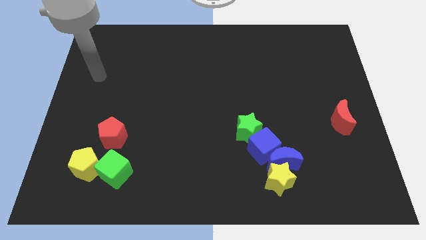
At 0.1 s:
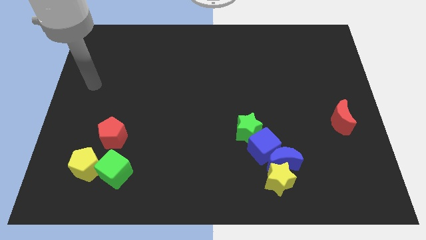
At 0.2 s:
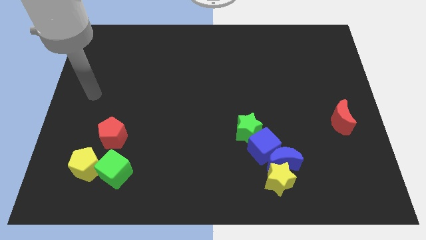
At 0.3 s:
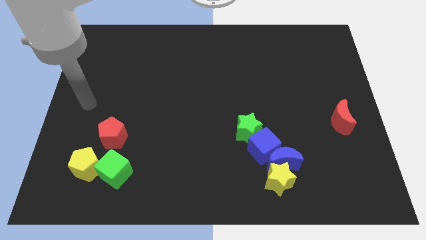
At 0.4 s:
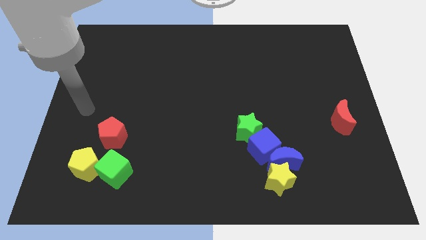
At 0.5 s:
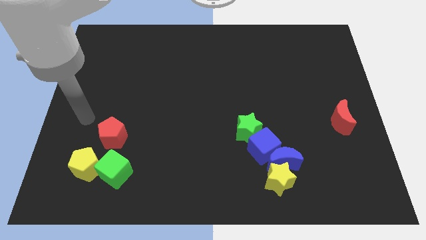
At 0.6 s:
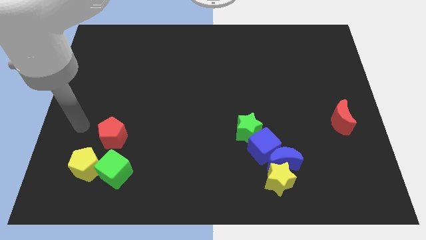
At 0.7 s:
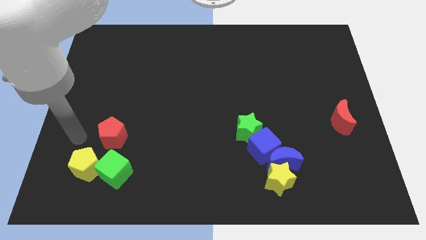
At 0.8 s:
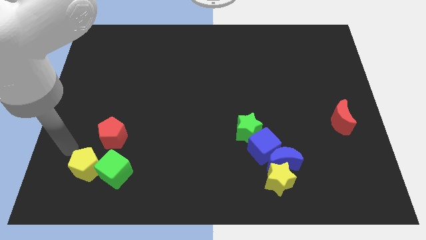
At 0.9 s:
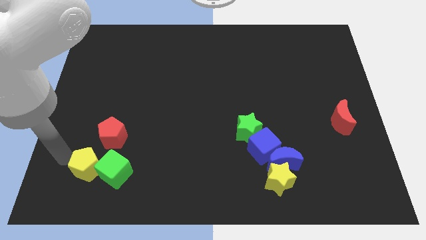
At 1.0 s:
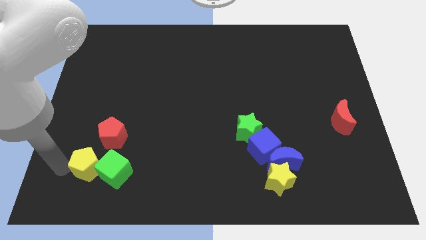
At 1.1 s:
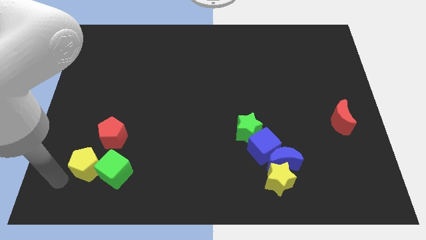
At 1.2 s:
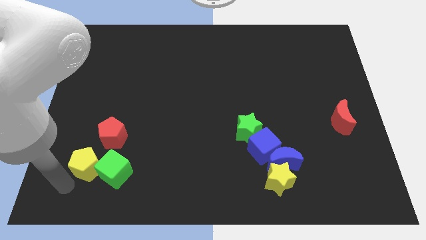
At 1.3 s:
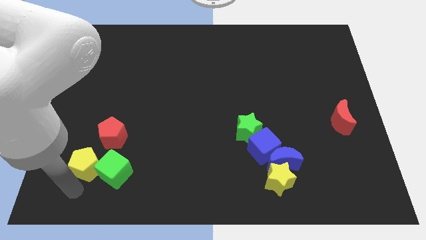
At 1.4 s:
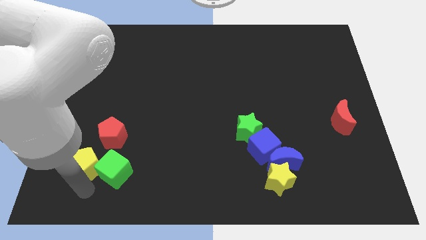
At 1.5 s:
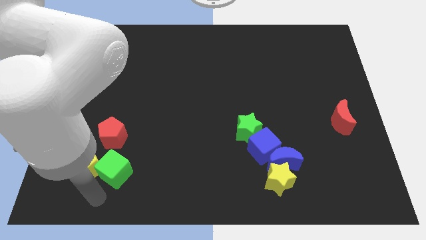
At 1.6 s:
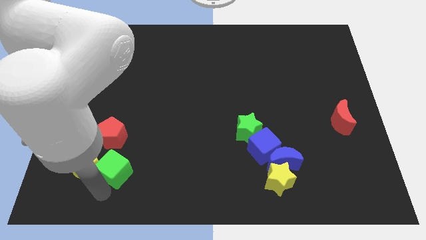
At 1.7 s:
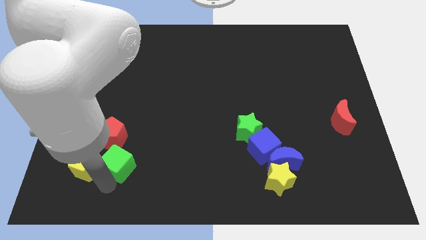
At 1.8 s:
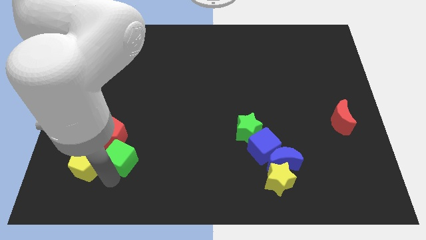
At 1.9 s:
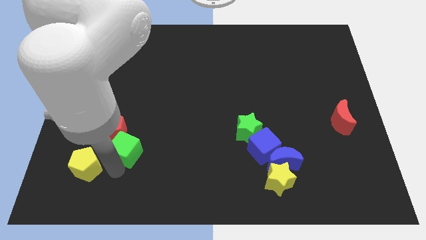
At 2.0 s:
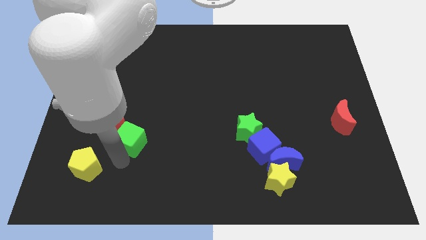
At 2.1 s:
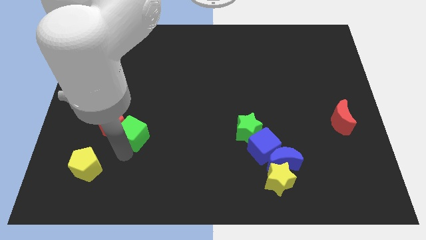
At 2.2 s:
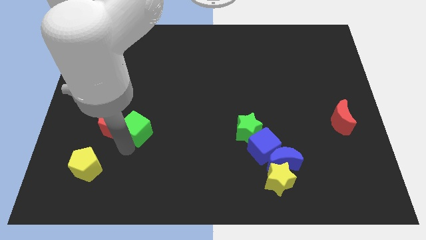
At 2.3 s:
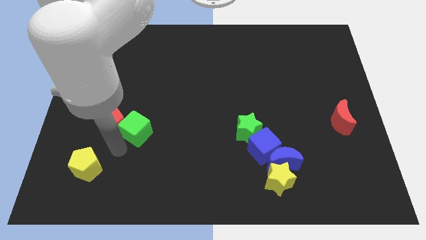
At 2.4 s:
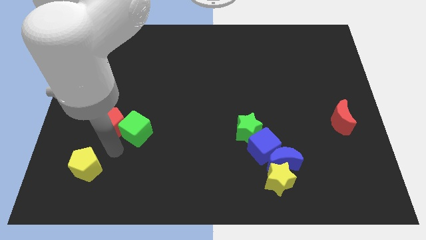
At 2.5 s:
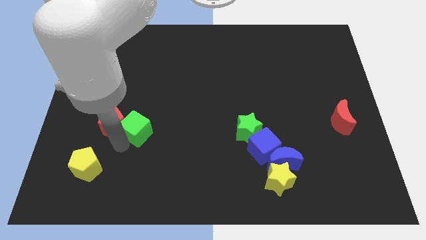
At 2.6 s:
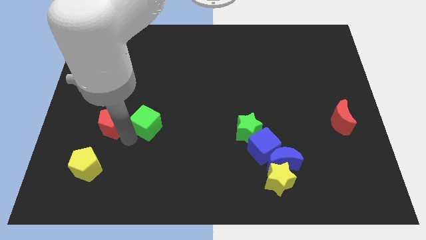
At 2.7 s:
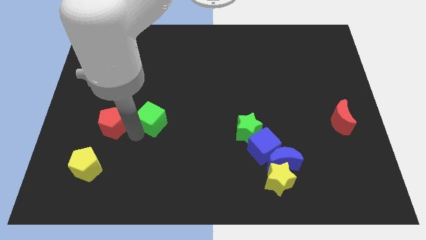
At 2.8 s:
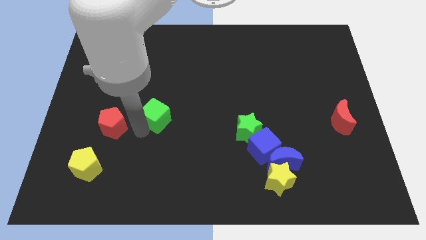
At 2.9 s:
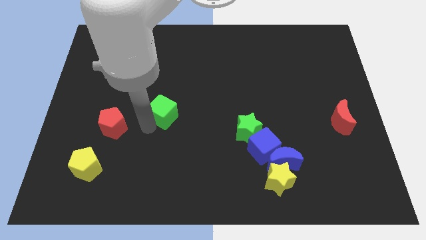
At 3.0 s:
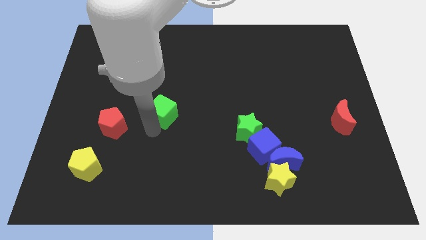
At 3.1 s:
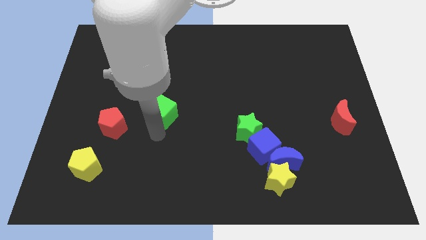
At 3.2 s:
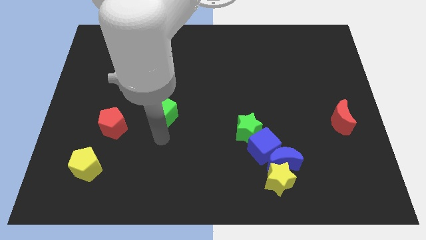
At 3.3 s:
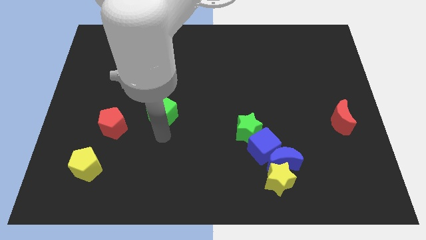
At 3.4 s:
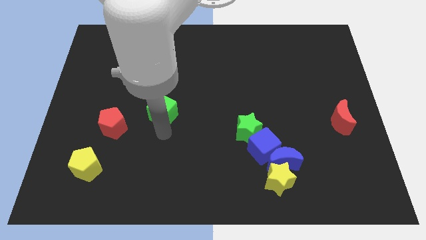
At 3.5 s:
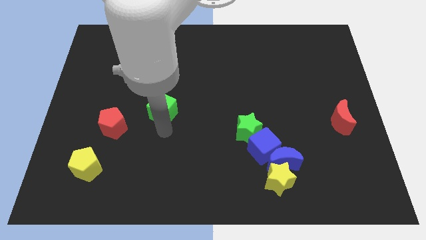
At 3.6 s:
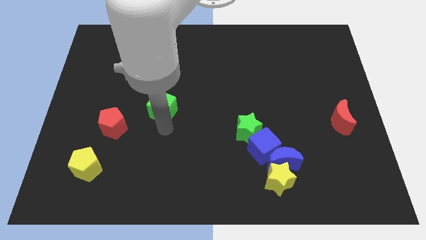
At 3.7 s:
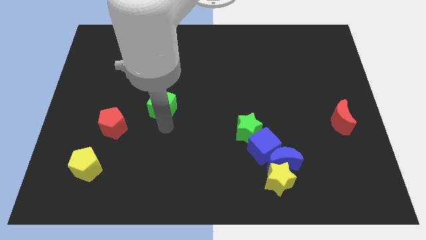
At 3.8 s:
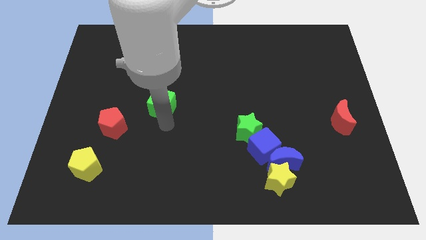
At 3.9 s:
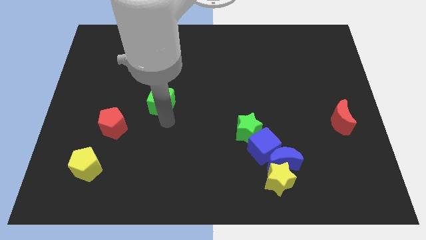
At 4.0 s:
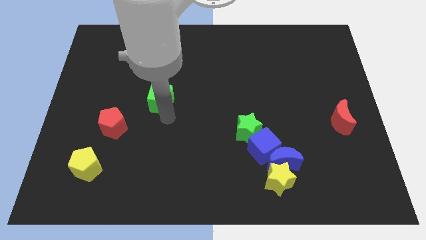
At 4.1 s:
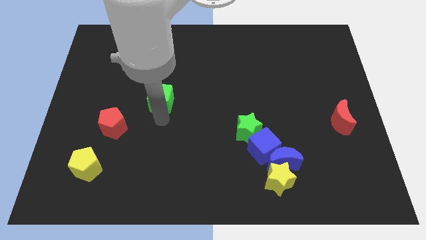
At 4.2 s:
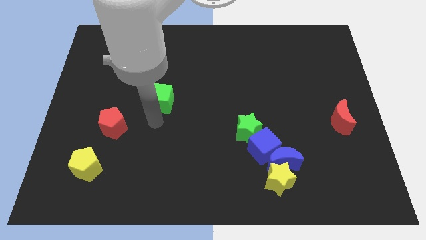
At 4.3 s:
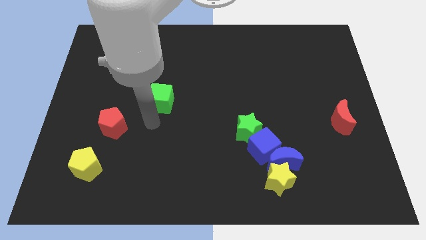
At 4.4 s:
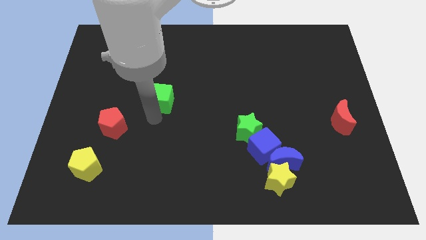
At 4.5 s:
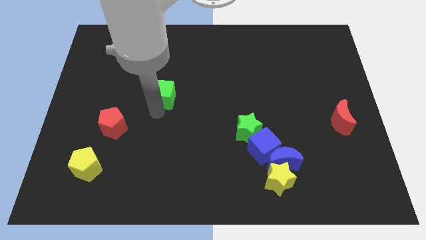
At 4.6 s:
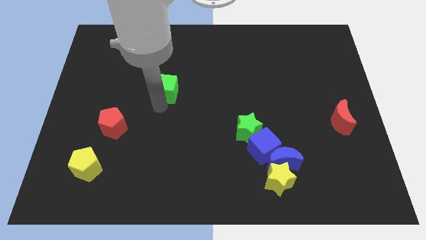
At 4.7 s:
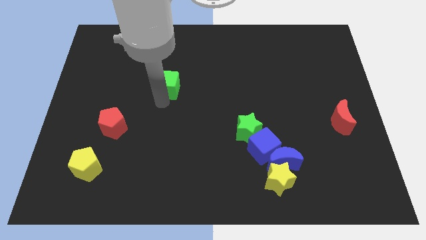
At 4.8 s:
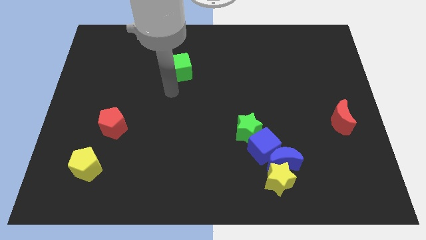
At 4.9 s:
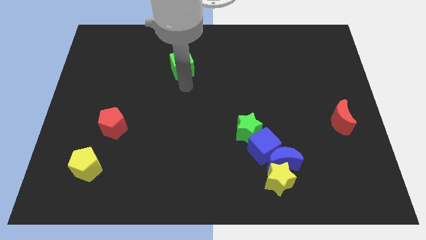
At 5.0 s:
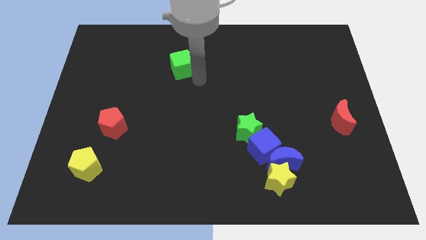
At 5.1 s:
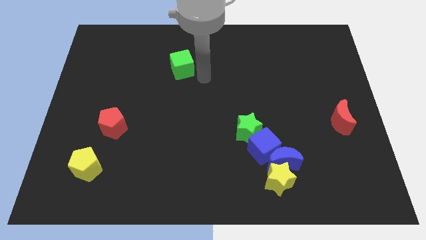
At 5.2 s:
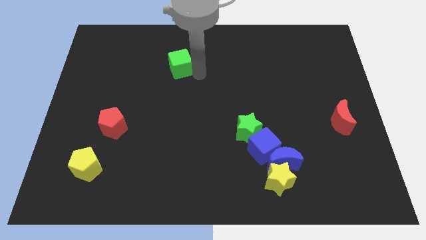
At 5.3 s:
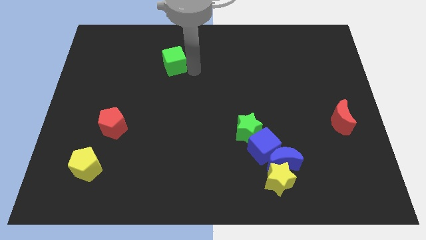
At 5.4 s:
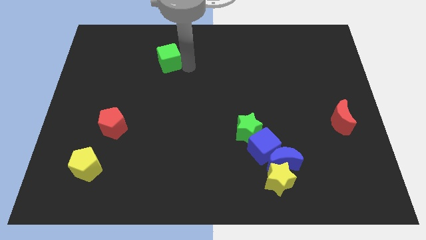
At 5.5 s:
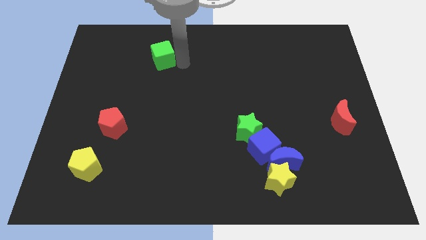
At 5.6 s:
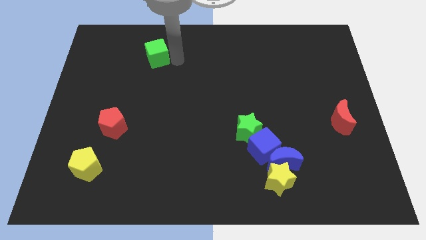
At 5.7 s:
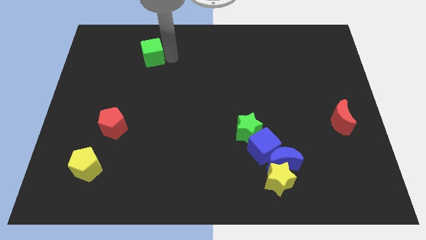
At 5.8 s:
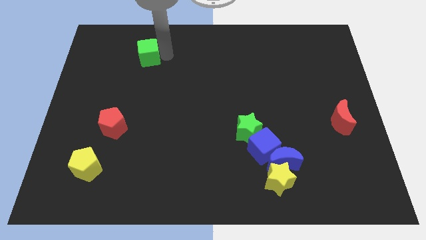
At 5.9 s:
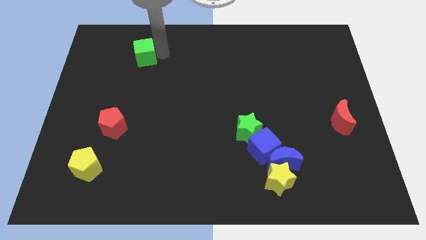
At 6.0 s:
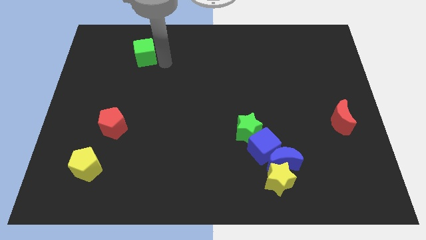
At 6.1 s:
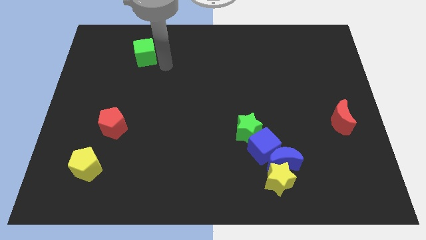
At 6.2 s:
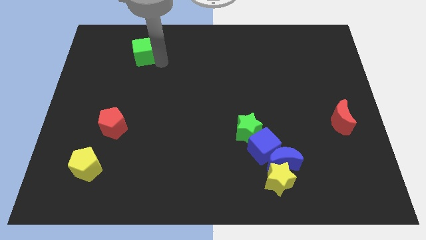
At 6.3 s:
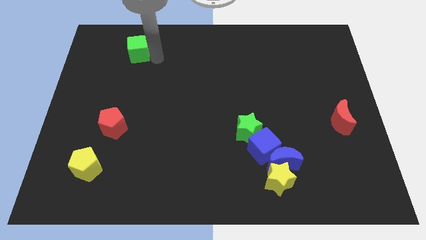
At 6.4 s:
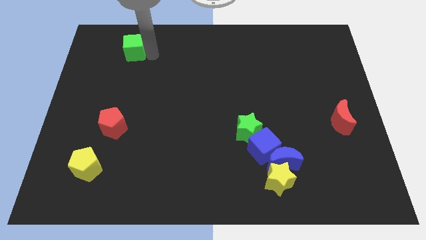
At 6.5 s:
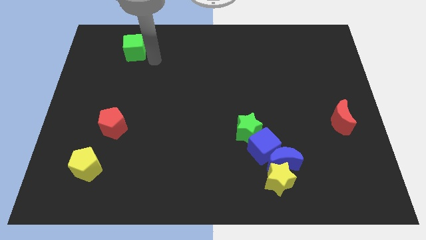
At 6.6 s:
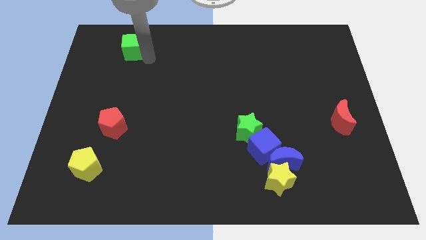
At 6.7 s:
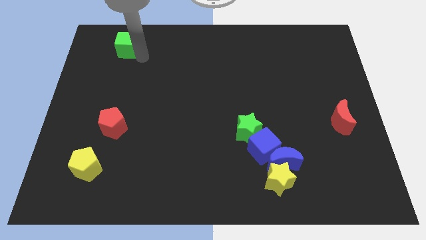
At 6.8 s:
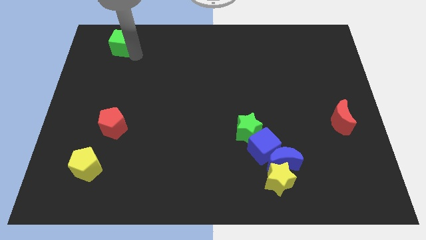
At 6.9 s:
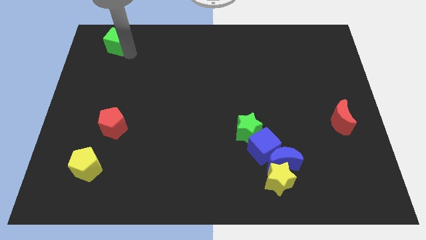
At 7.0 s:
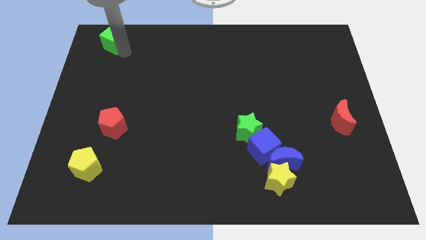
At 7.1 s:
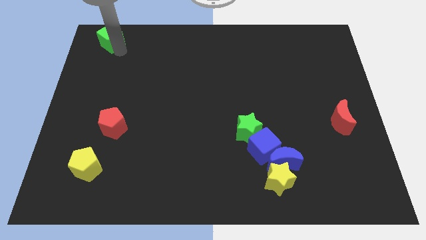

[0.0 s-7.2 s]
move the green cube to the top left of the board
